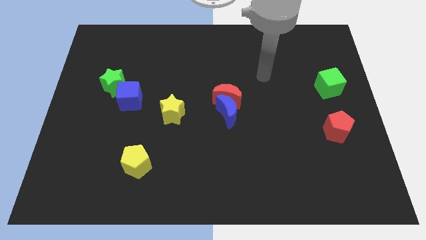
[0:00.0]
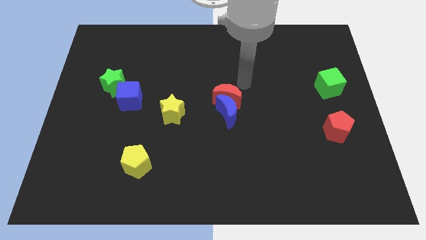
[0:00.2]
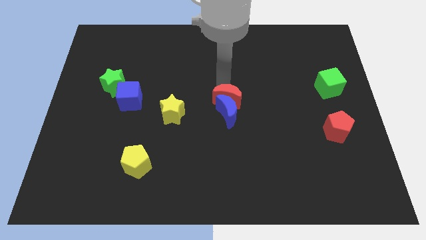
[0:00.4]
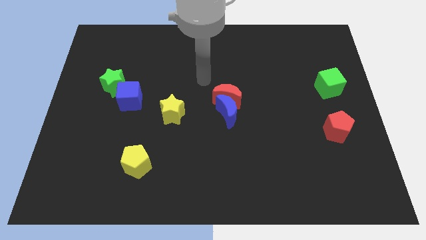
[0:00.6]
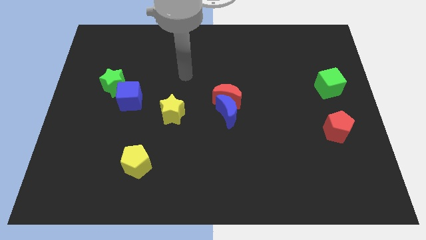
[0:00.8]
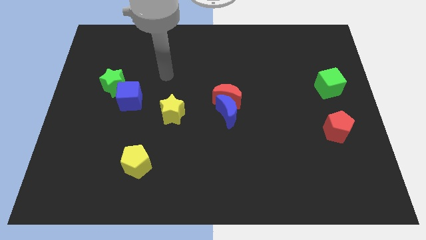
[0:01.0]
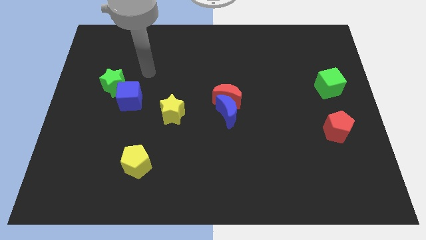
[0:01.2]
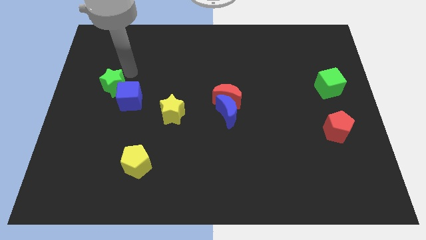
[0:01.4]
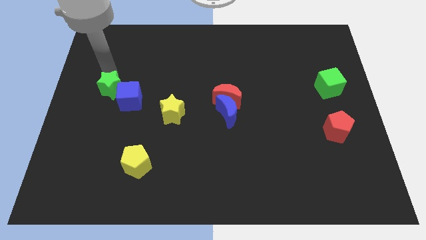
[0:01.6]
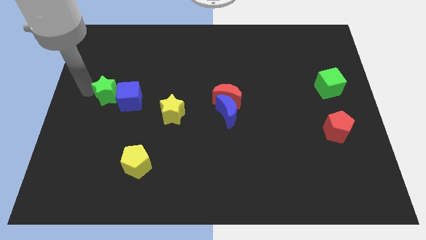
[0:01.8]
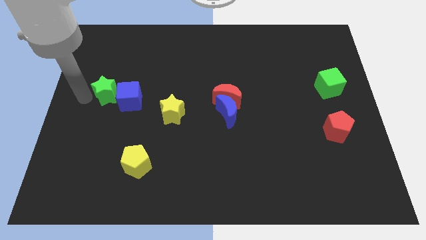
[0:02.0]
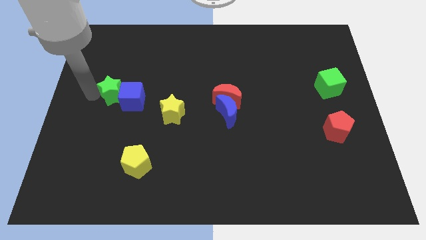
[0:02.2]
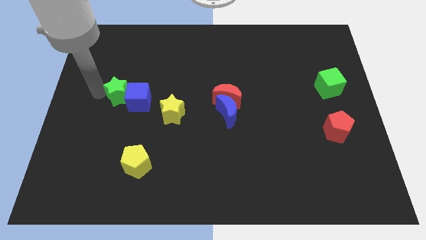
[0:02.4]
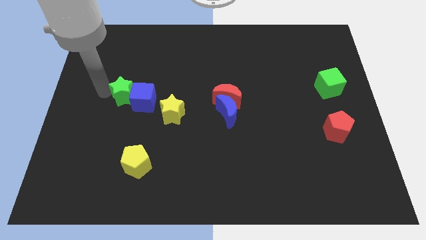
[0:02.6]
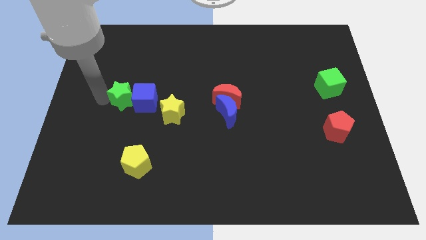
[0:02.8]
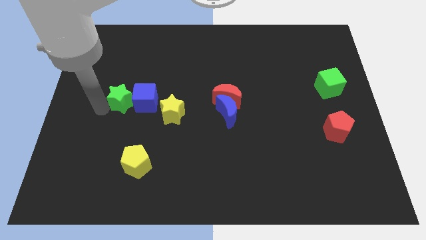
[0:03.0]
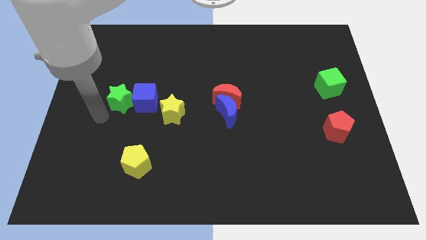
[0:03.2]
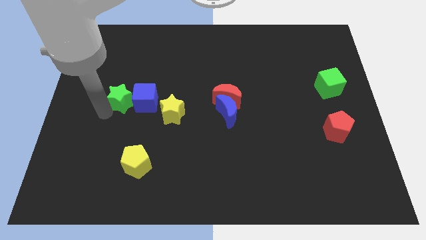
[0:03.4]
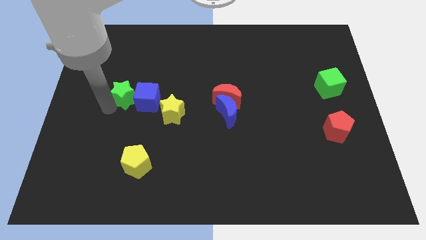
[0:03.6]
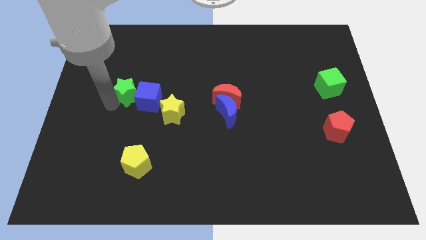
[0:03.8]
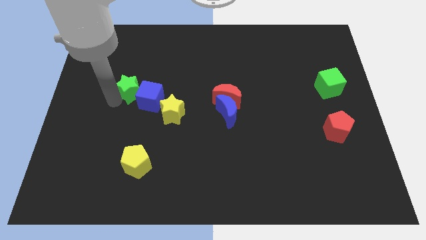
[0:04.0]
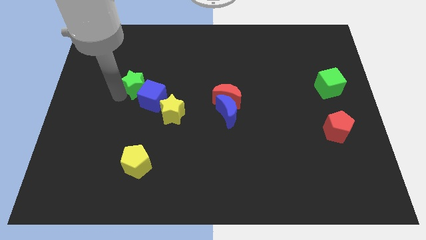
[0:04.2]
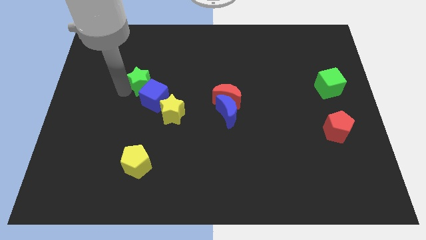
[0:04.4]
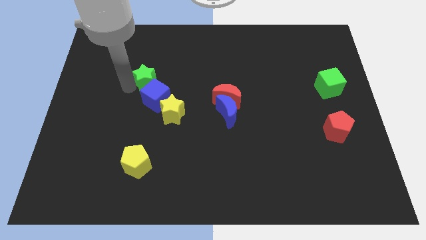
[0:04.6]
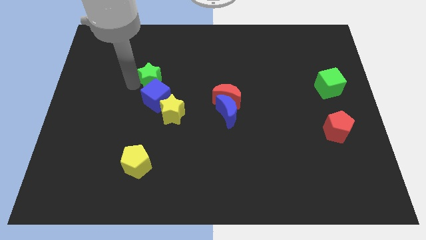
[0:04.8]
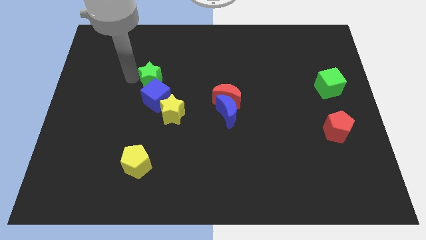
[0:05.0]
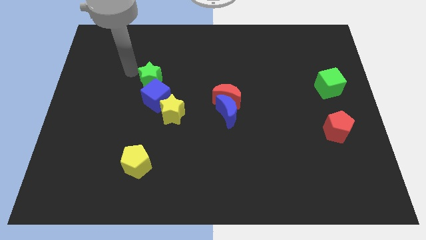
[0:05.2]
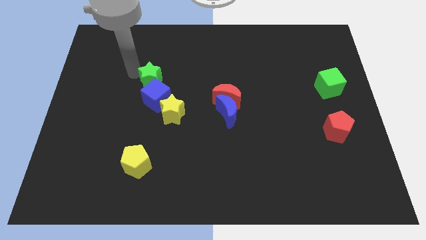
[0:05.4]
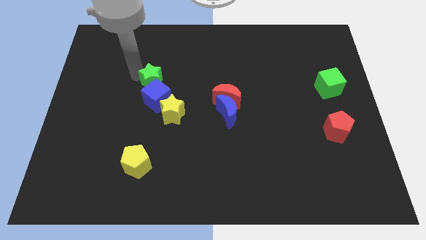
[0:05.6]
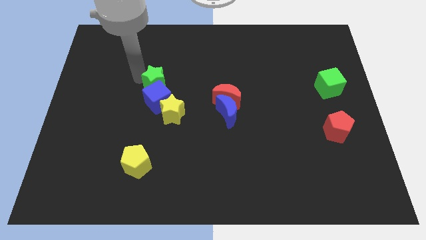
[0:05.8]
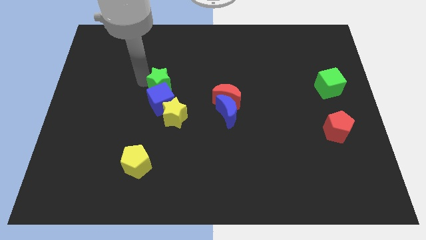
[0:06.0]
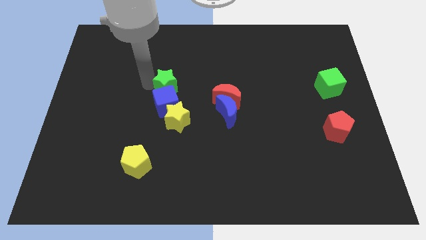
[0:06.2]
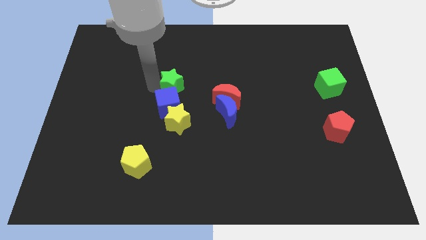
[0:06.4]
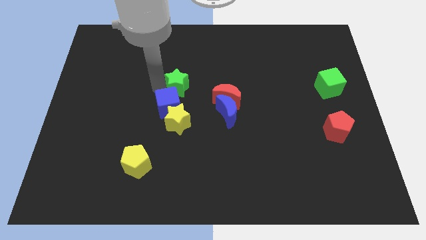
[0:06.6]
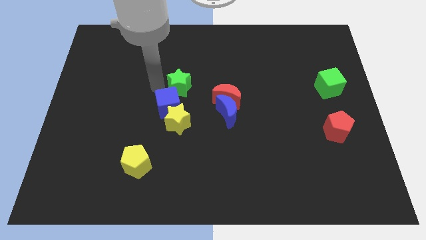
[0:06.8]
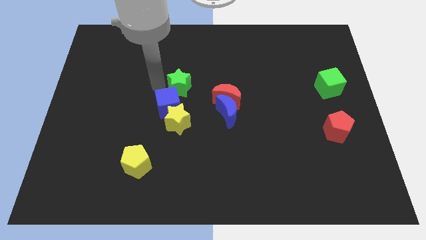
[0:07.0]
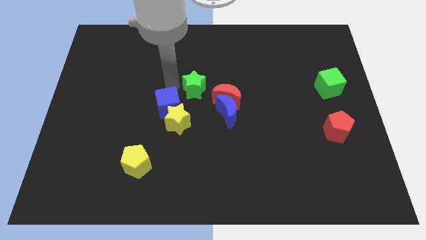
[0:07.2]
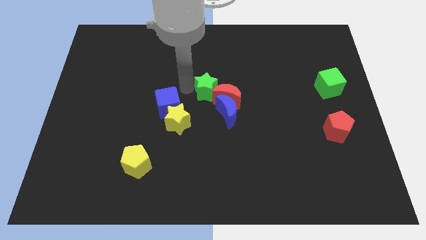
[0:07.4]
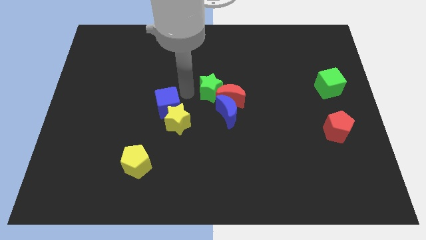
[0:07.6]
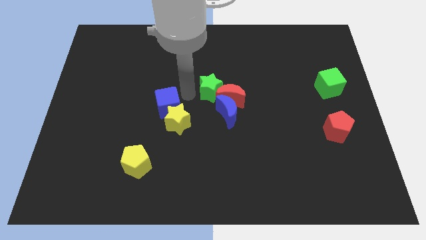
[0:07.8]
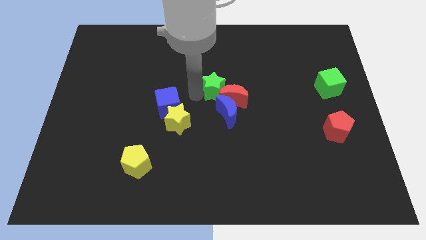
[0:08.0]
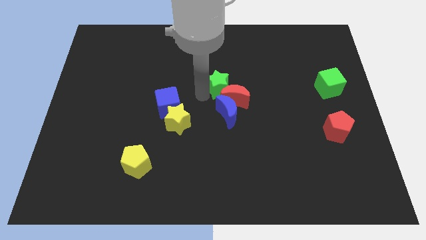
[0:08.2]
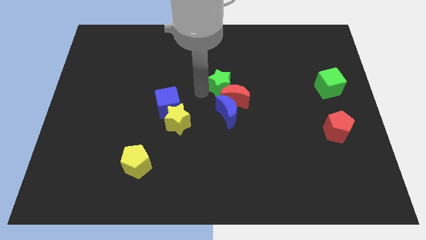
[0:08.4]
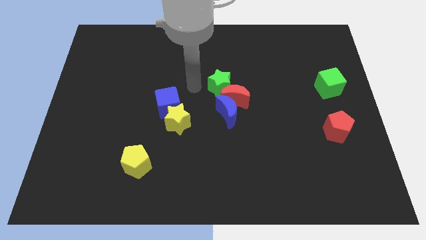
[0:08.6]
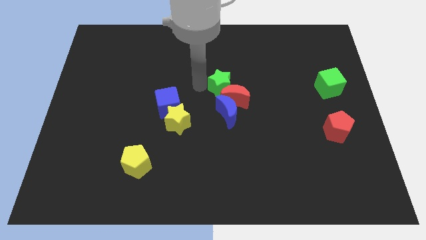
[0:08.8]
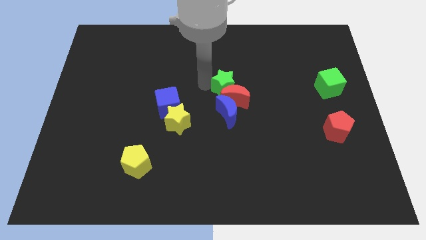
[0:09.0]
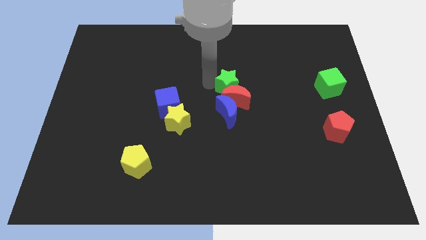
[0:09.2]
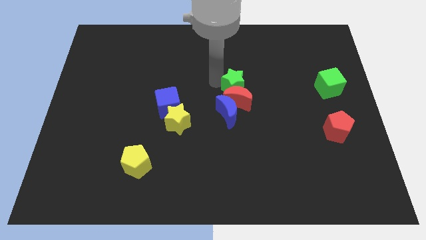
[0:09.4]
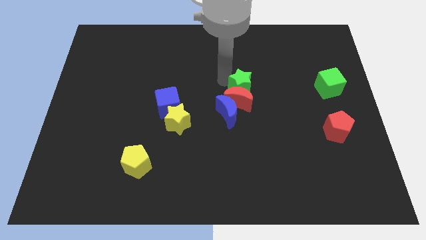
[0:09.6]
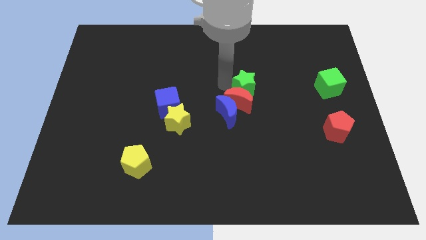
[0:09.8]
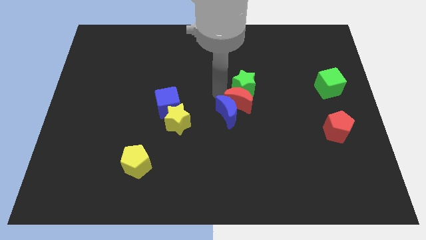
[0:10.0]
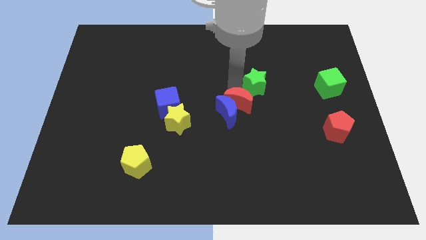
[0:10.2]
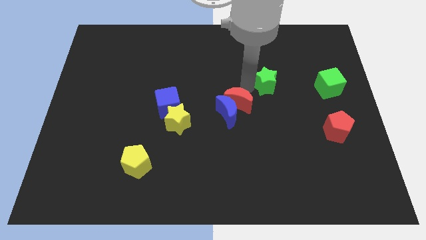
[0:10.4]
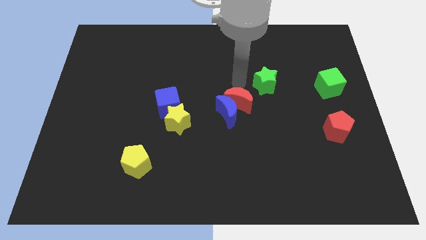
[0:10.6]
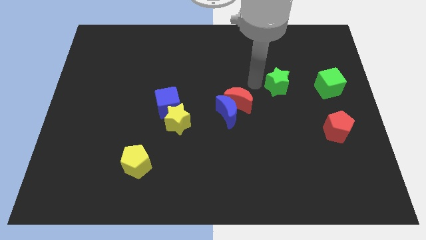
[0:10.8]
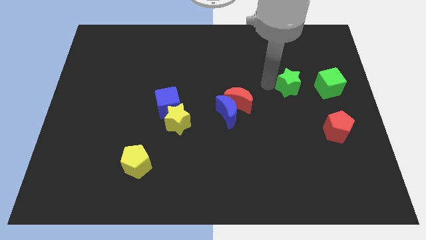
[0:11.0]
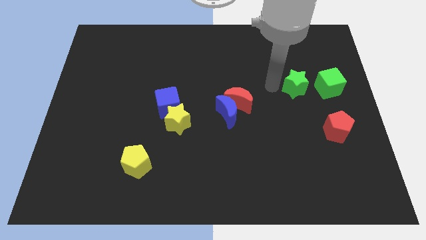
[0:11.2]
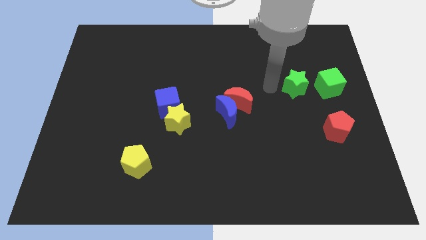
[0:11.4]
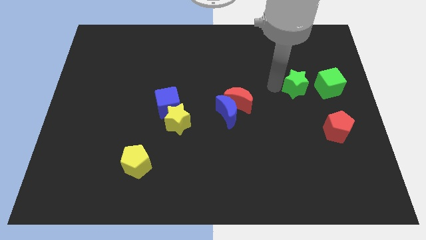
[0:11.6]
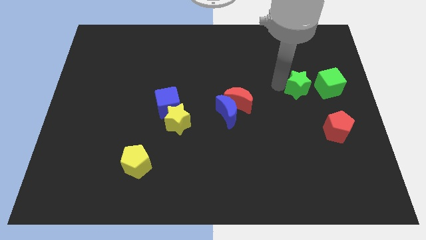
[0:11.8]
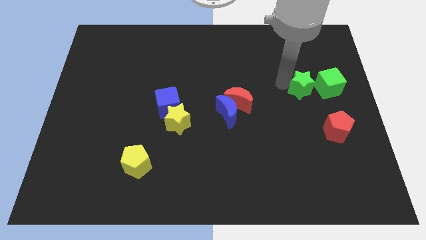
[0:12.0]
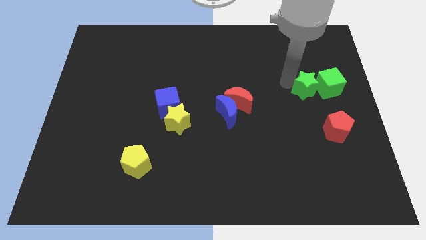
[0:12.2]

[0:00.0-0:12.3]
slide the green star towards the green cube

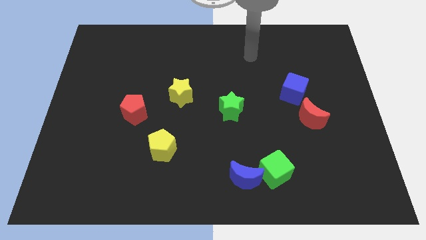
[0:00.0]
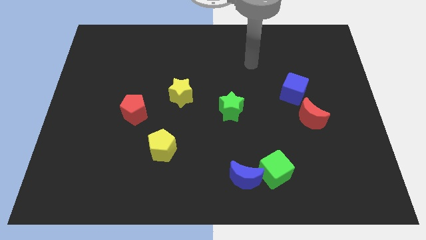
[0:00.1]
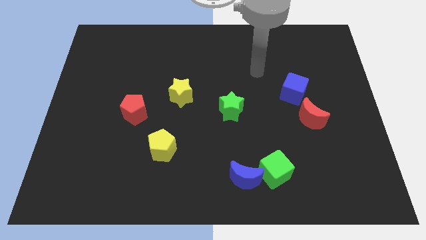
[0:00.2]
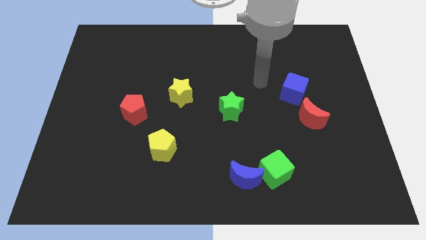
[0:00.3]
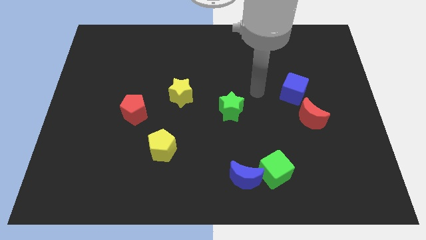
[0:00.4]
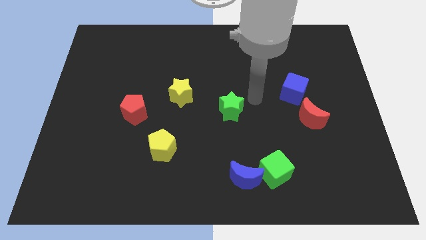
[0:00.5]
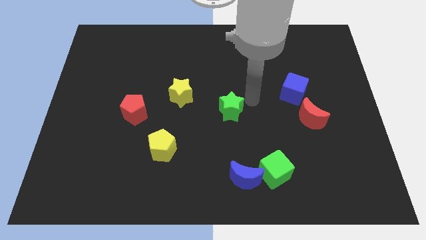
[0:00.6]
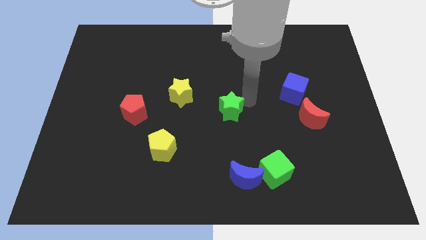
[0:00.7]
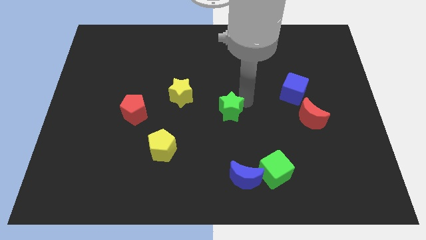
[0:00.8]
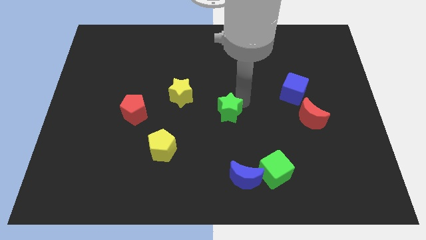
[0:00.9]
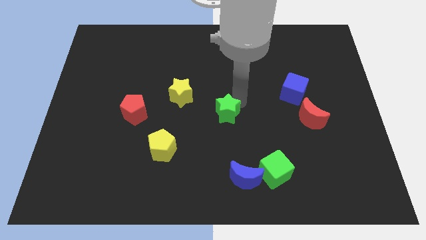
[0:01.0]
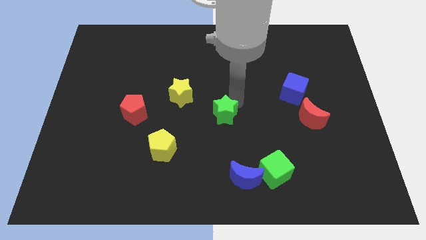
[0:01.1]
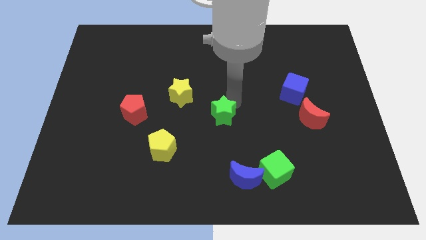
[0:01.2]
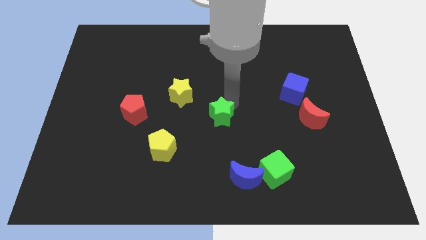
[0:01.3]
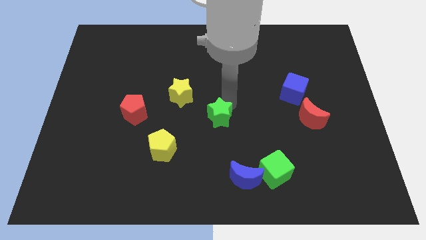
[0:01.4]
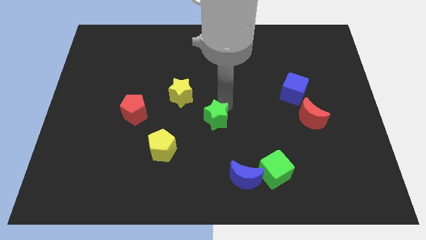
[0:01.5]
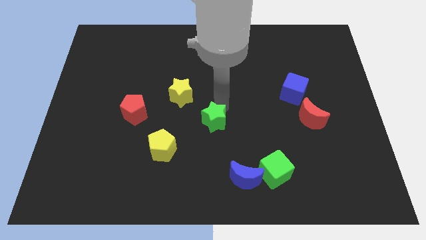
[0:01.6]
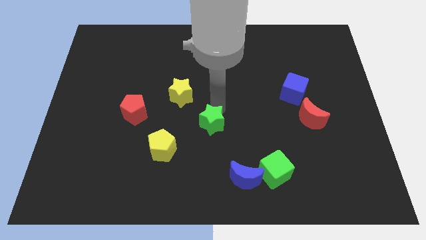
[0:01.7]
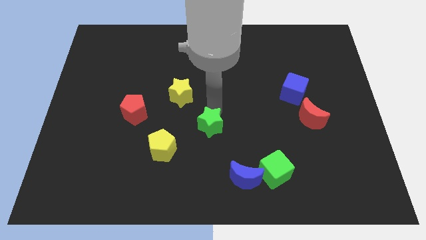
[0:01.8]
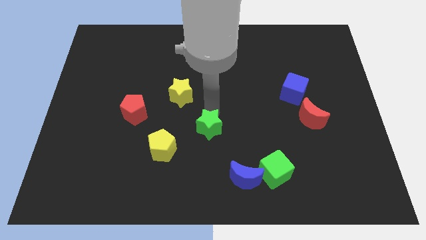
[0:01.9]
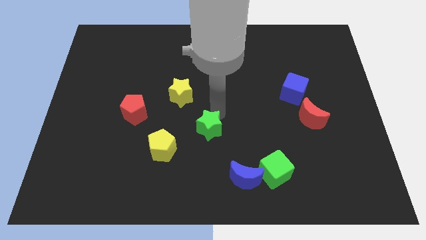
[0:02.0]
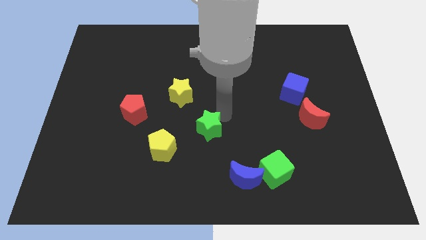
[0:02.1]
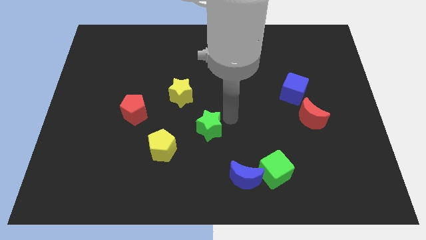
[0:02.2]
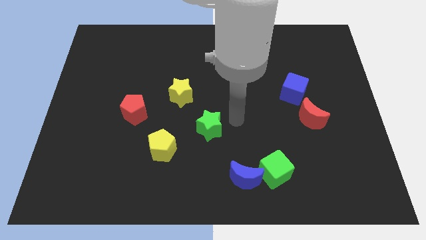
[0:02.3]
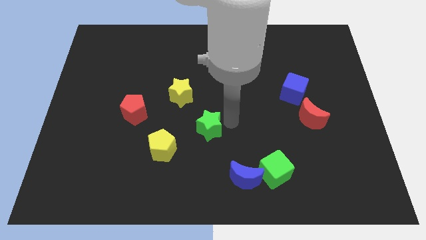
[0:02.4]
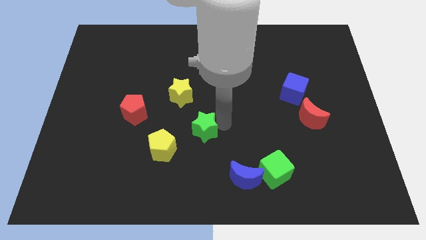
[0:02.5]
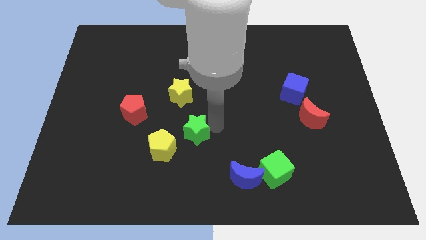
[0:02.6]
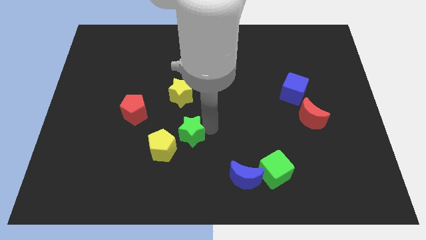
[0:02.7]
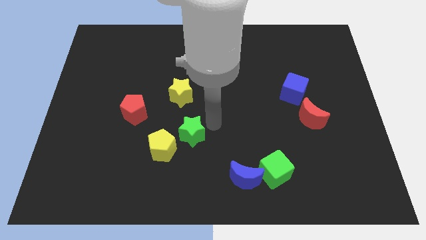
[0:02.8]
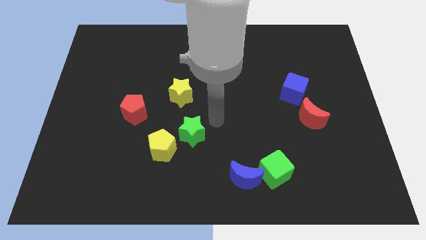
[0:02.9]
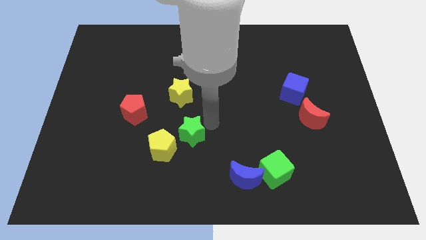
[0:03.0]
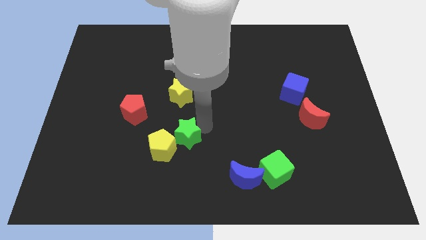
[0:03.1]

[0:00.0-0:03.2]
put the green star to the yellow pentagon
